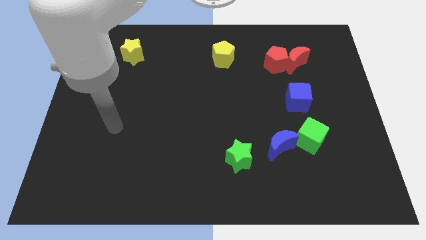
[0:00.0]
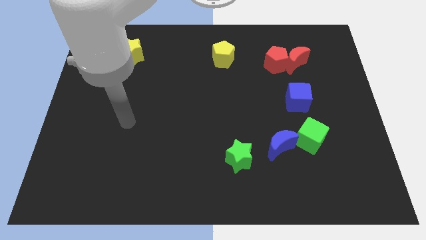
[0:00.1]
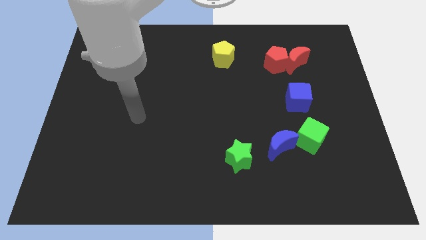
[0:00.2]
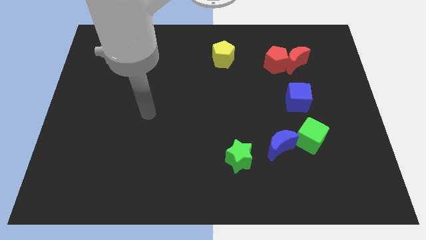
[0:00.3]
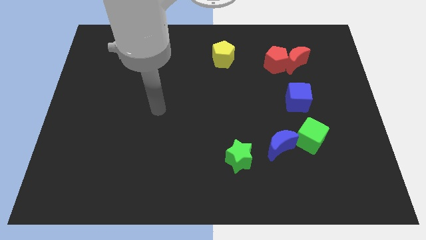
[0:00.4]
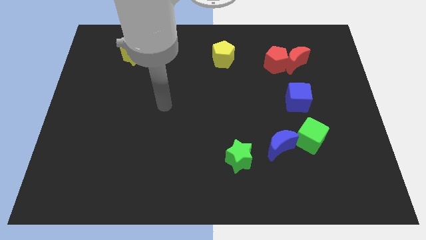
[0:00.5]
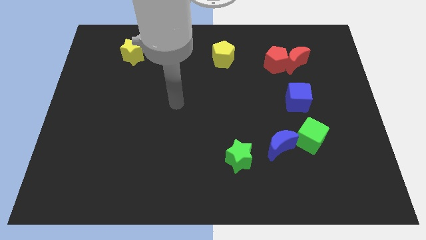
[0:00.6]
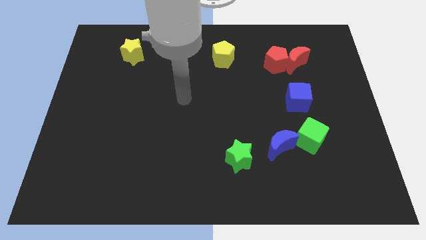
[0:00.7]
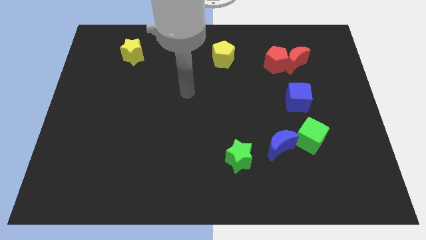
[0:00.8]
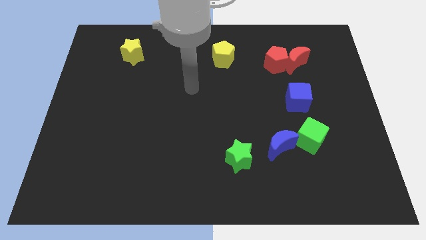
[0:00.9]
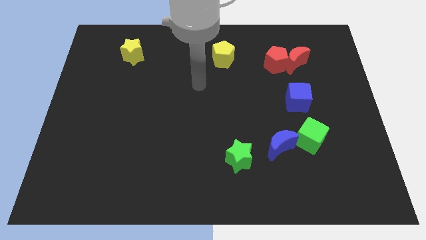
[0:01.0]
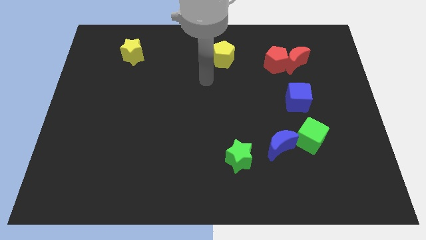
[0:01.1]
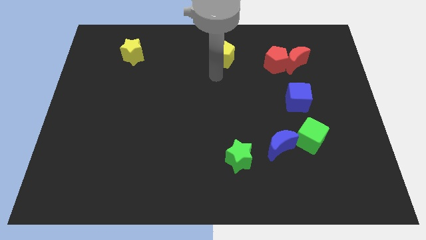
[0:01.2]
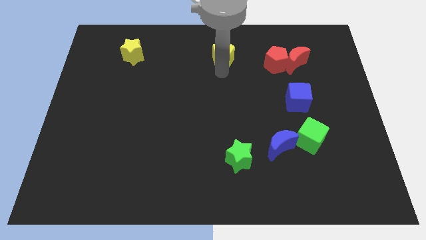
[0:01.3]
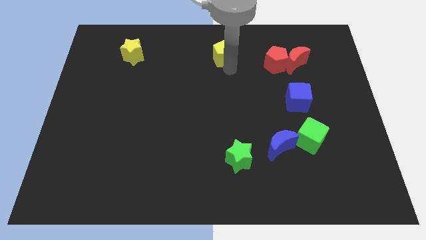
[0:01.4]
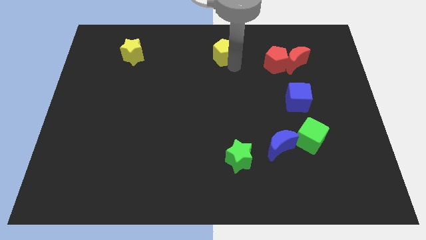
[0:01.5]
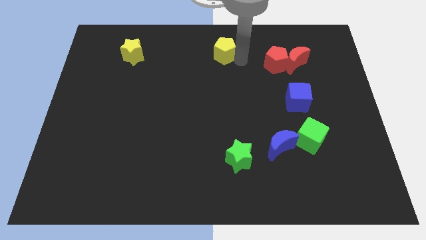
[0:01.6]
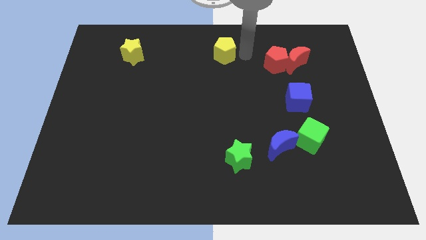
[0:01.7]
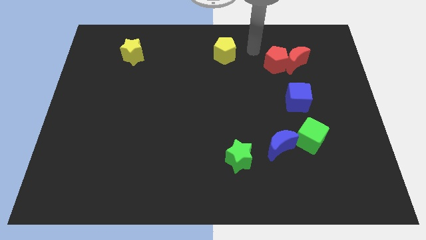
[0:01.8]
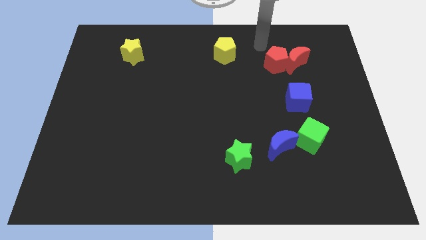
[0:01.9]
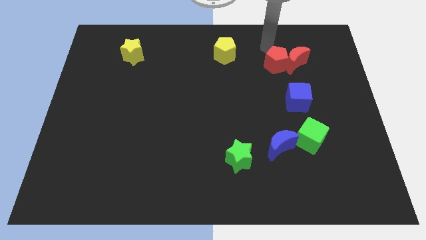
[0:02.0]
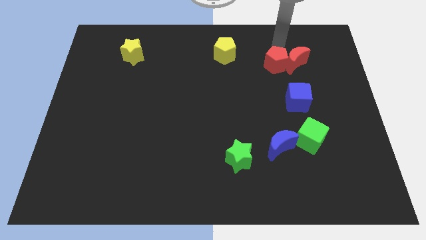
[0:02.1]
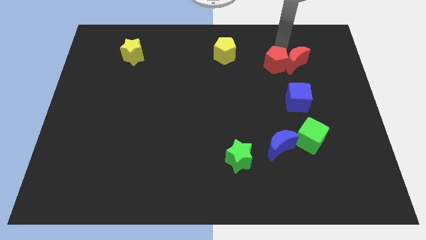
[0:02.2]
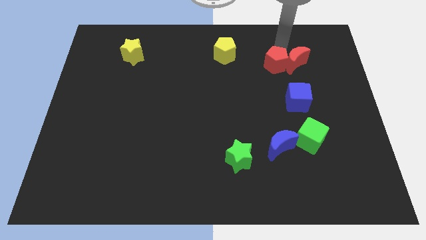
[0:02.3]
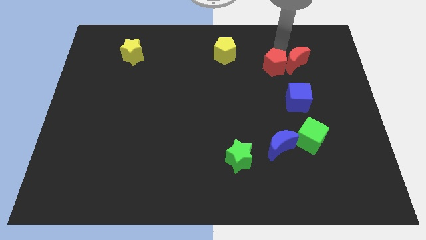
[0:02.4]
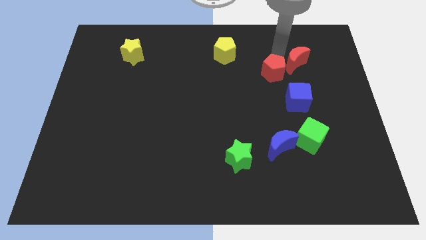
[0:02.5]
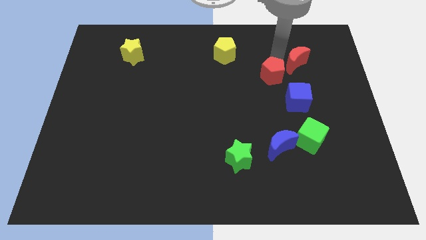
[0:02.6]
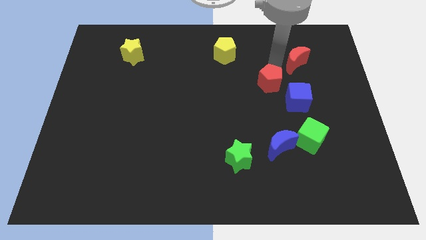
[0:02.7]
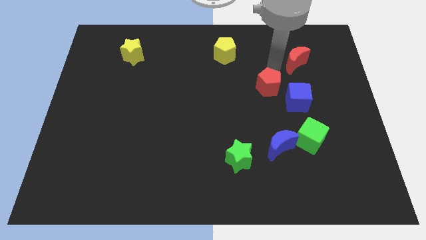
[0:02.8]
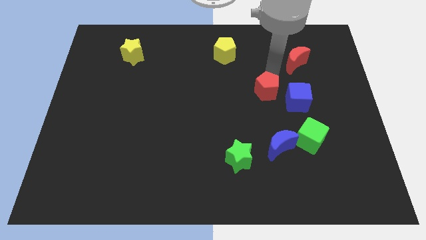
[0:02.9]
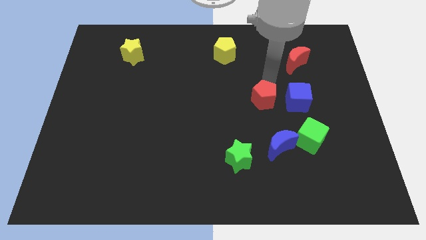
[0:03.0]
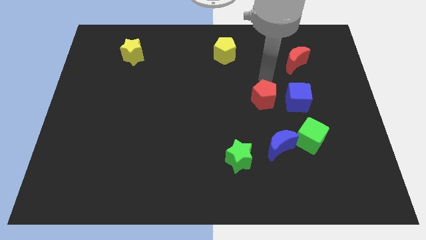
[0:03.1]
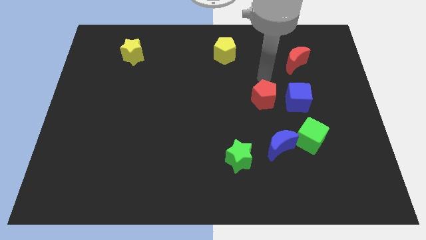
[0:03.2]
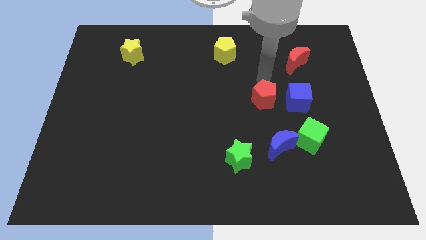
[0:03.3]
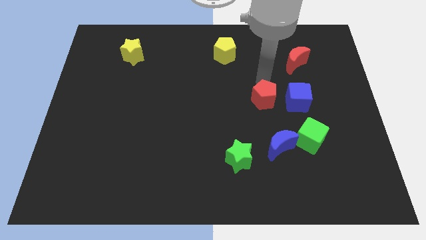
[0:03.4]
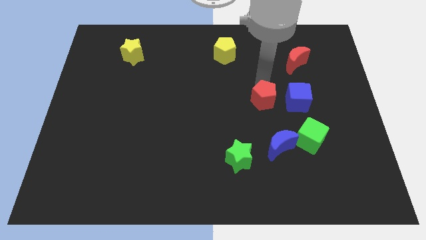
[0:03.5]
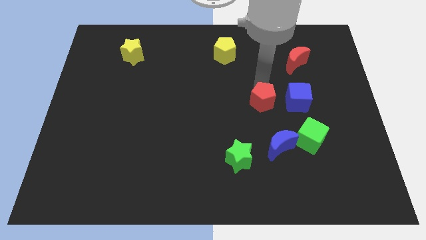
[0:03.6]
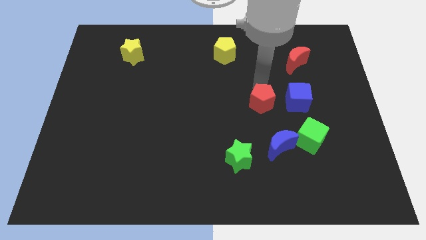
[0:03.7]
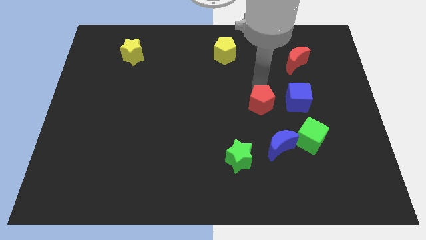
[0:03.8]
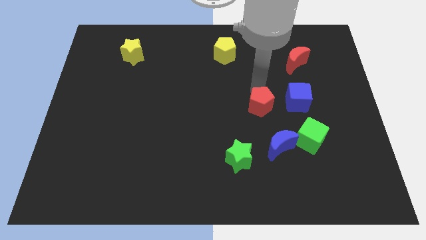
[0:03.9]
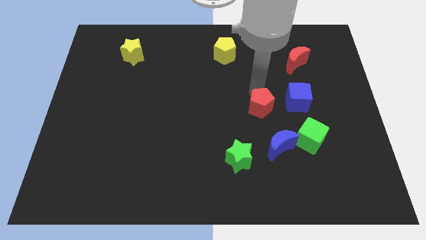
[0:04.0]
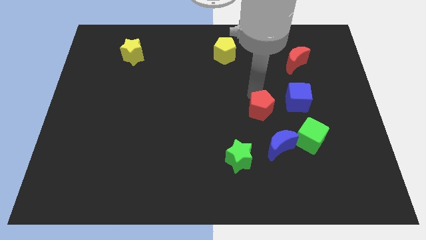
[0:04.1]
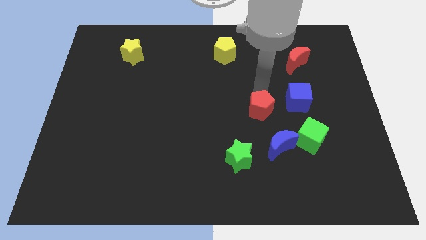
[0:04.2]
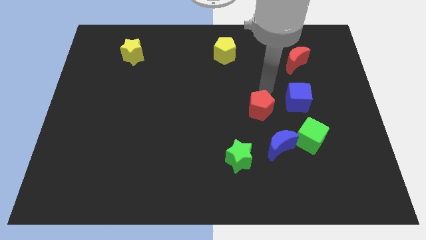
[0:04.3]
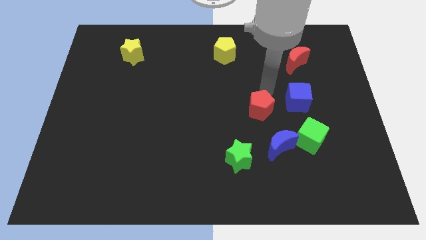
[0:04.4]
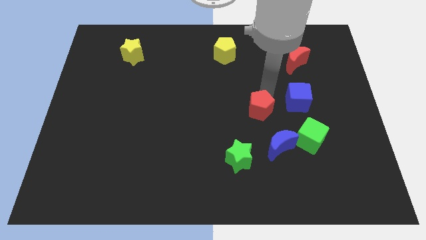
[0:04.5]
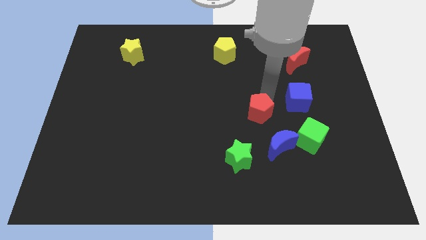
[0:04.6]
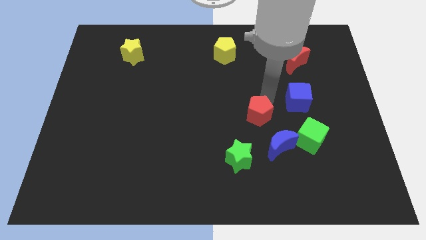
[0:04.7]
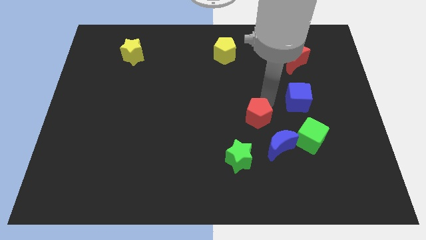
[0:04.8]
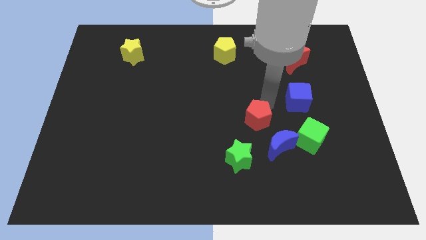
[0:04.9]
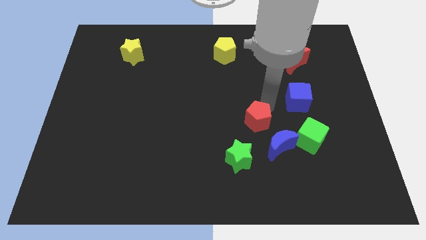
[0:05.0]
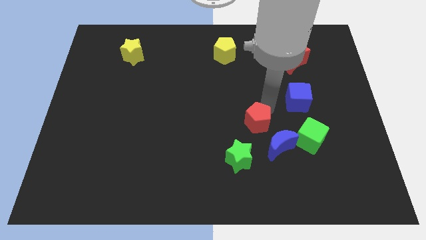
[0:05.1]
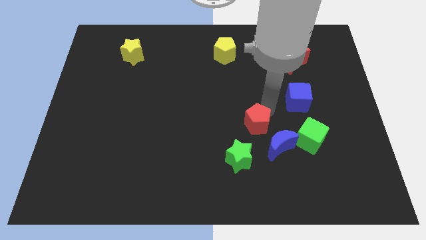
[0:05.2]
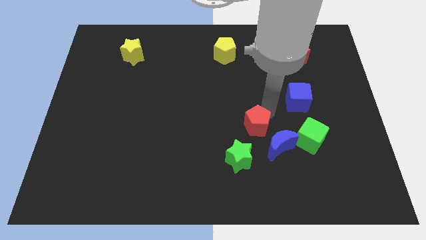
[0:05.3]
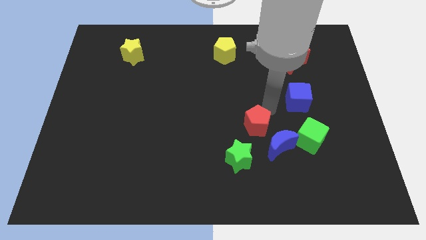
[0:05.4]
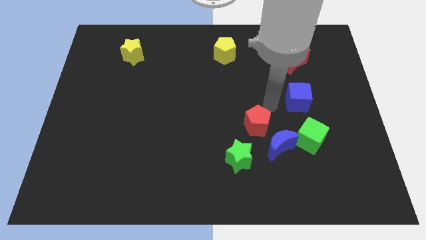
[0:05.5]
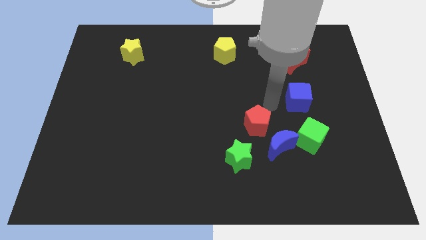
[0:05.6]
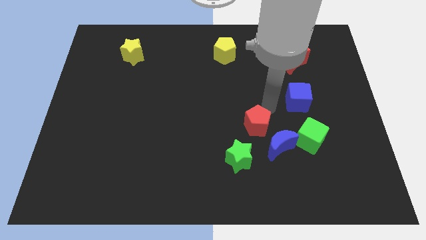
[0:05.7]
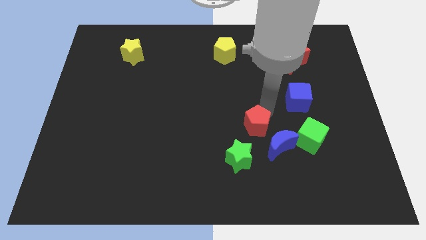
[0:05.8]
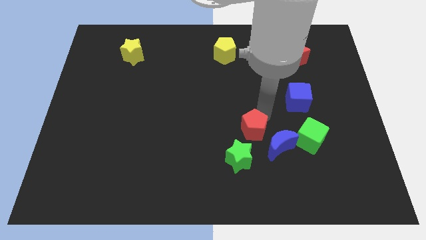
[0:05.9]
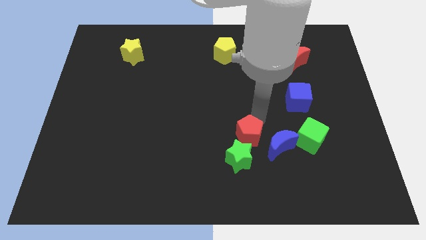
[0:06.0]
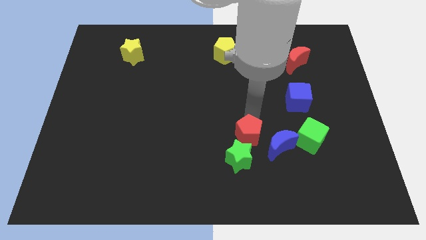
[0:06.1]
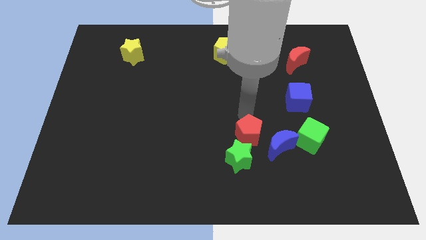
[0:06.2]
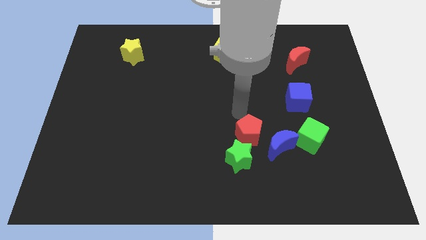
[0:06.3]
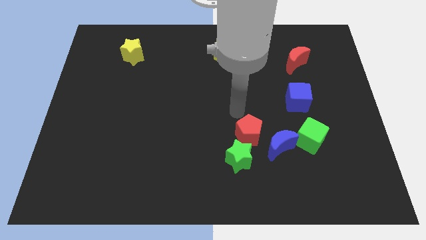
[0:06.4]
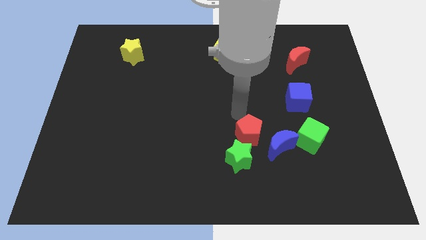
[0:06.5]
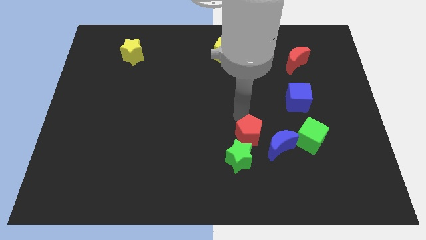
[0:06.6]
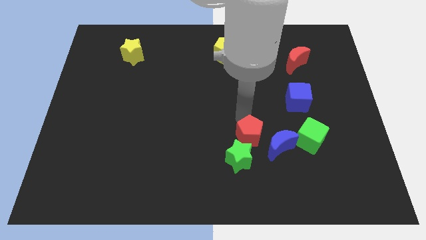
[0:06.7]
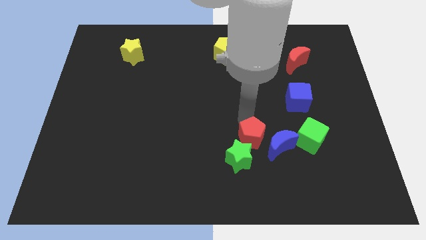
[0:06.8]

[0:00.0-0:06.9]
slide the red pentagon downwards

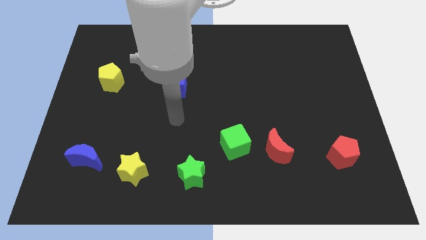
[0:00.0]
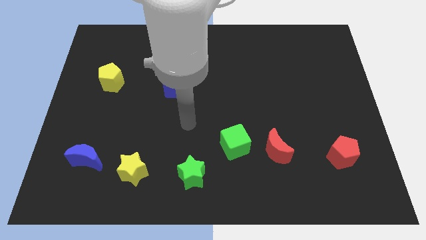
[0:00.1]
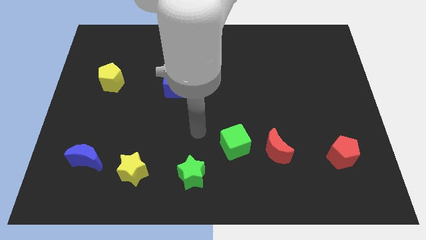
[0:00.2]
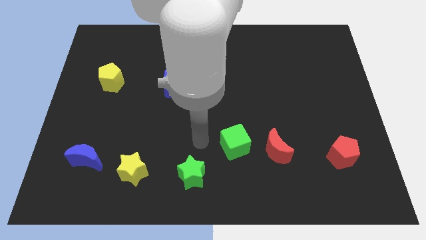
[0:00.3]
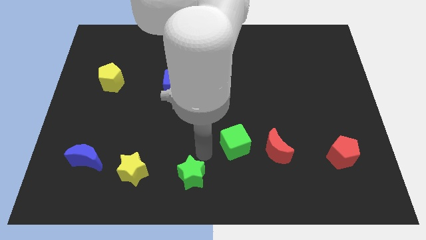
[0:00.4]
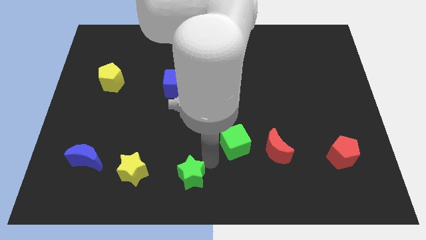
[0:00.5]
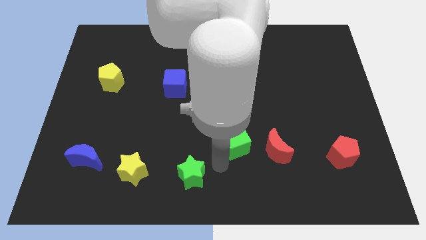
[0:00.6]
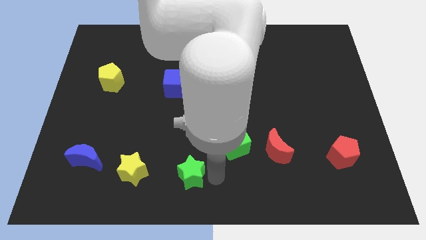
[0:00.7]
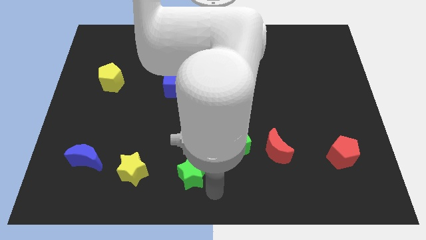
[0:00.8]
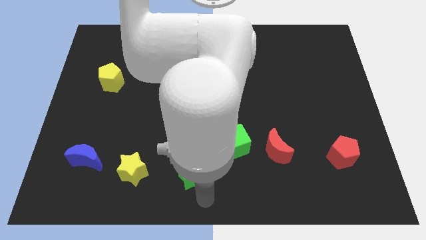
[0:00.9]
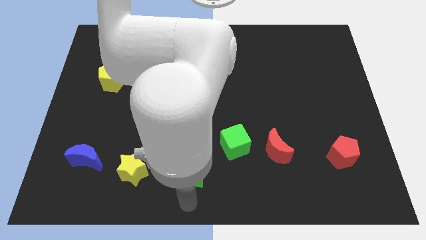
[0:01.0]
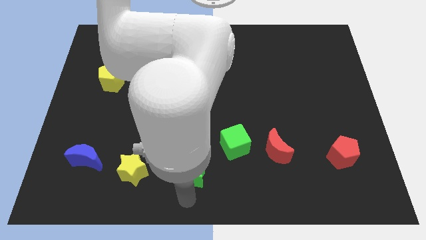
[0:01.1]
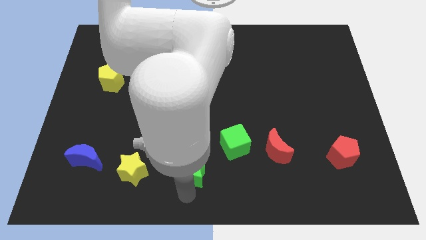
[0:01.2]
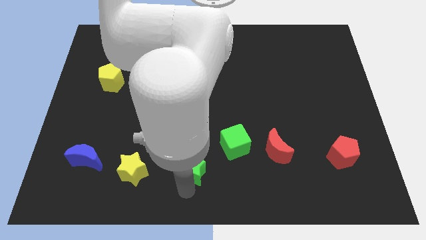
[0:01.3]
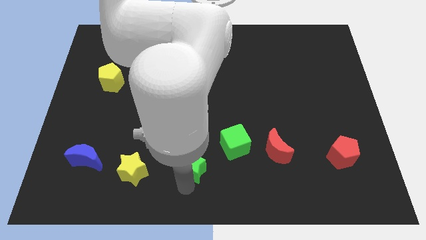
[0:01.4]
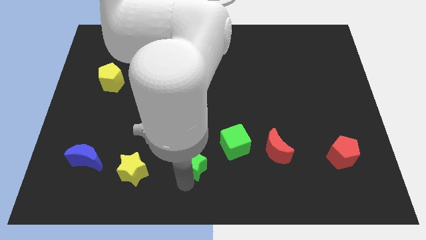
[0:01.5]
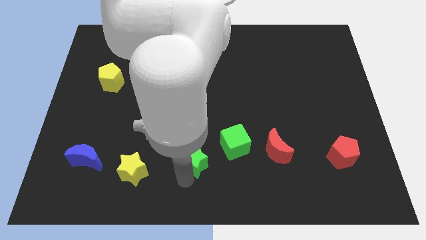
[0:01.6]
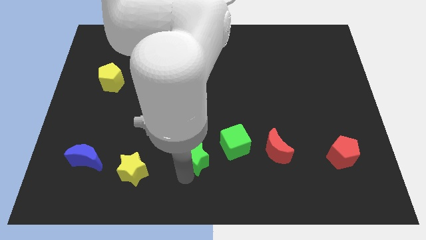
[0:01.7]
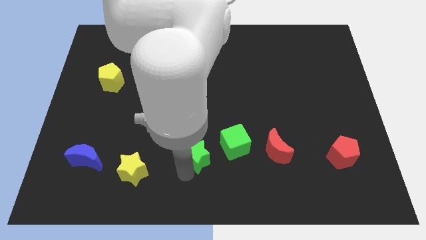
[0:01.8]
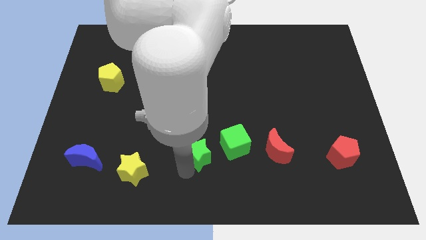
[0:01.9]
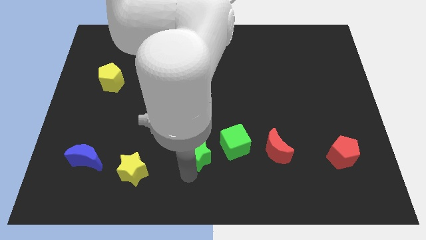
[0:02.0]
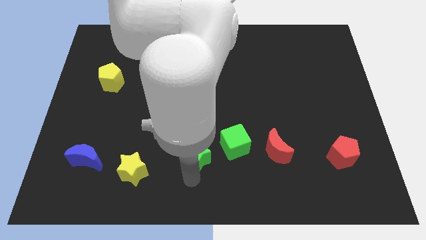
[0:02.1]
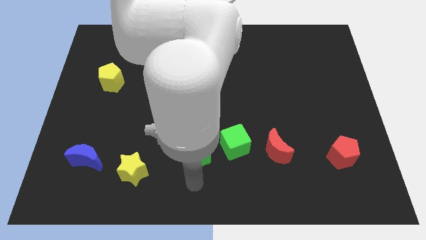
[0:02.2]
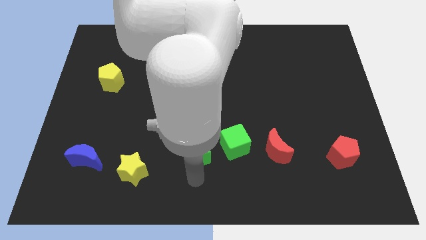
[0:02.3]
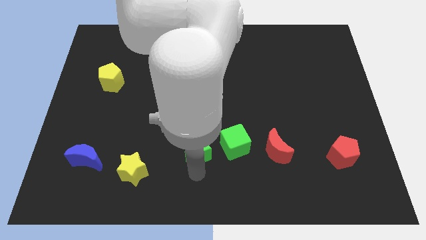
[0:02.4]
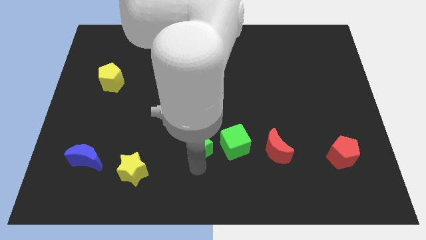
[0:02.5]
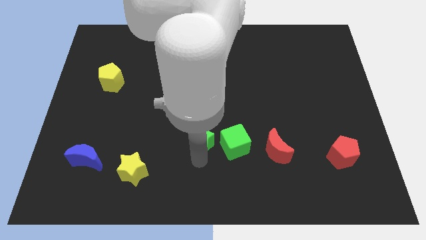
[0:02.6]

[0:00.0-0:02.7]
slightly move the green star upwards
